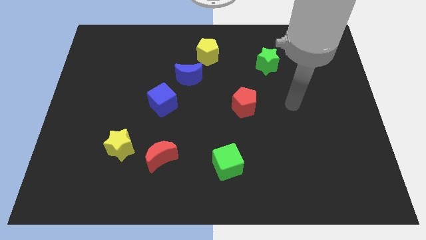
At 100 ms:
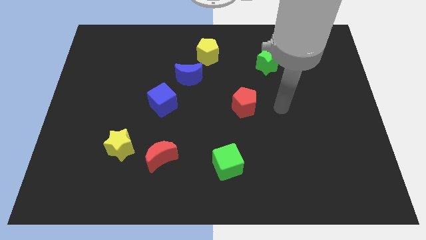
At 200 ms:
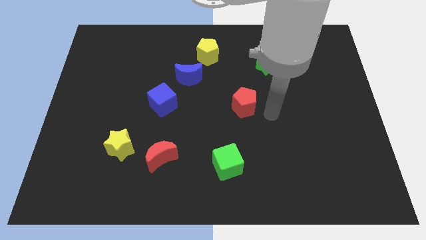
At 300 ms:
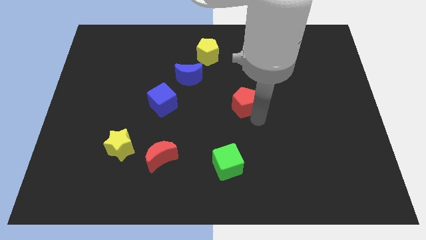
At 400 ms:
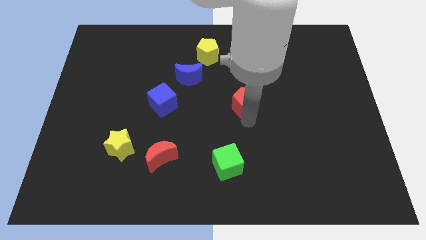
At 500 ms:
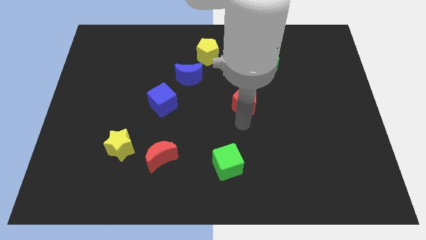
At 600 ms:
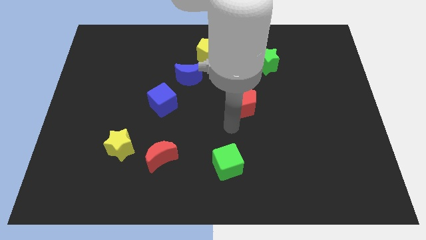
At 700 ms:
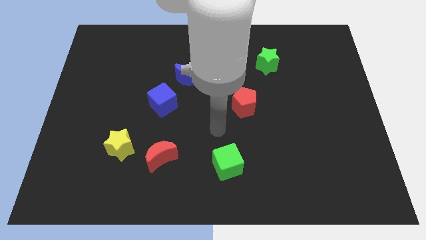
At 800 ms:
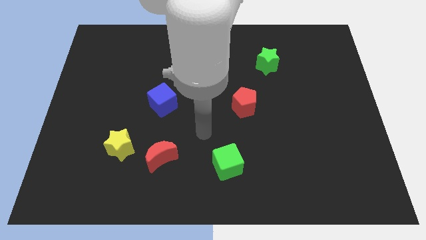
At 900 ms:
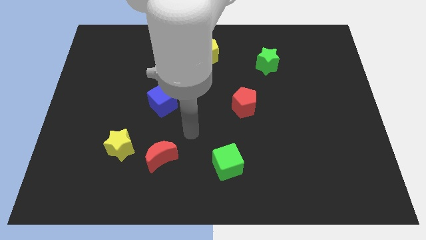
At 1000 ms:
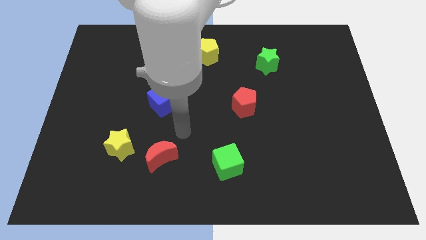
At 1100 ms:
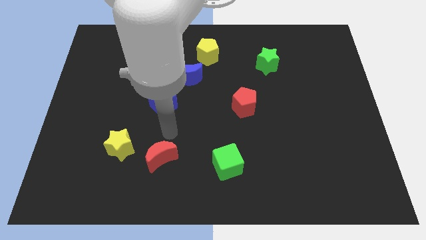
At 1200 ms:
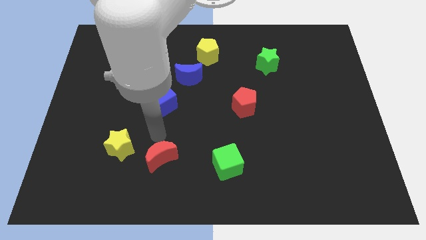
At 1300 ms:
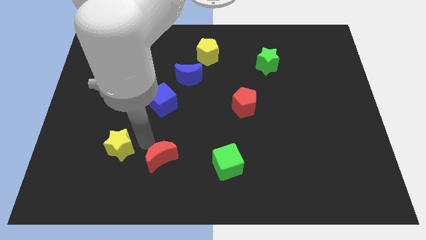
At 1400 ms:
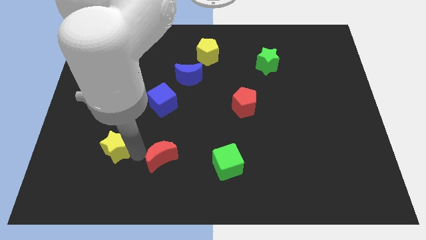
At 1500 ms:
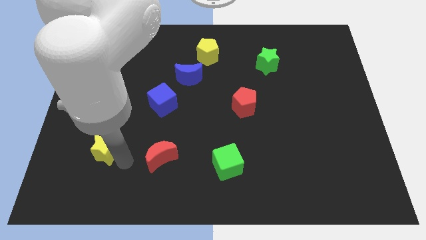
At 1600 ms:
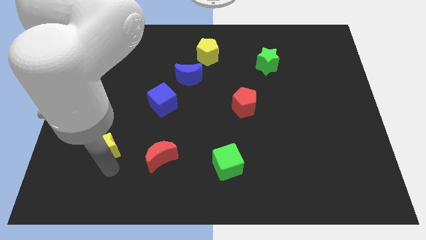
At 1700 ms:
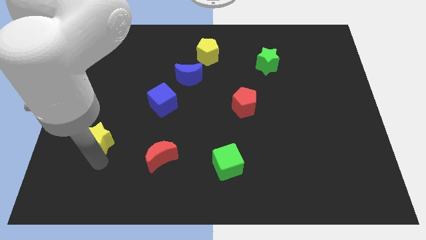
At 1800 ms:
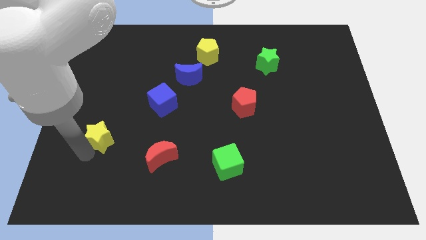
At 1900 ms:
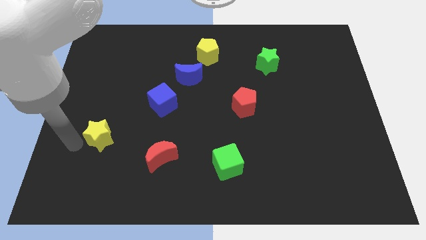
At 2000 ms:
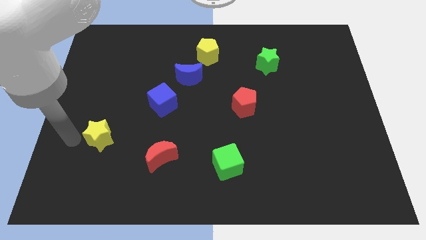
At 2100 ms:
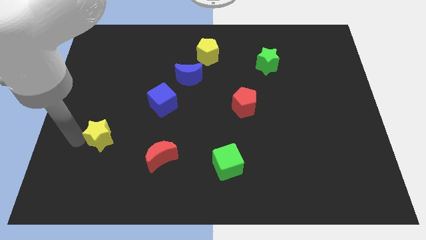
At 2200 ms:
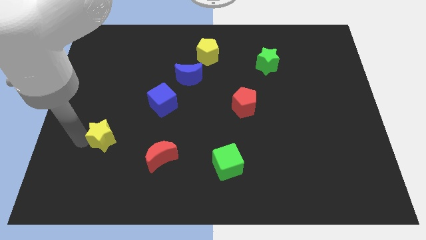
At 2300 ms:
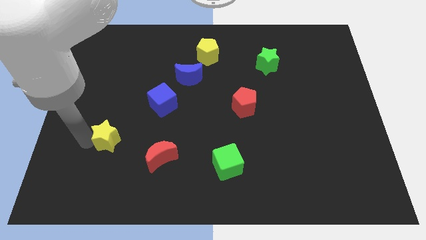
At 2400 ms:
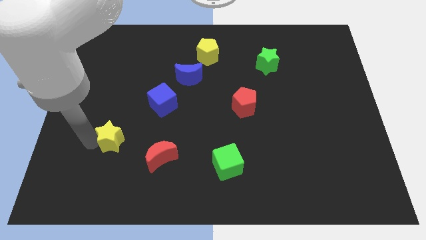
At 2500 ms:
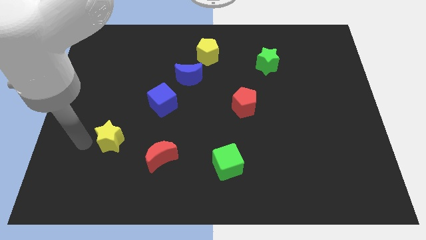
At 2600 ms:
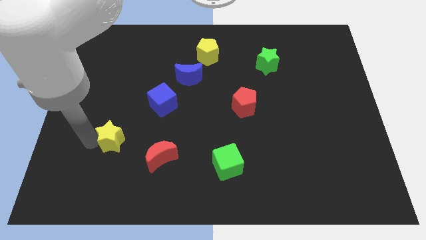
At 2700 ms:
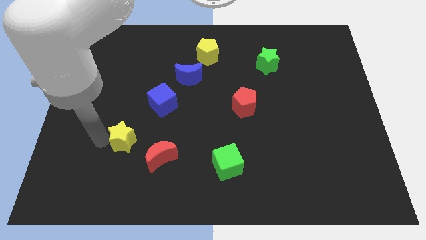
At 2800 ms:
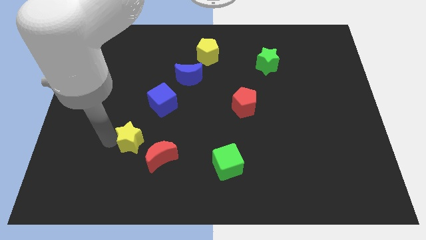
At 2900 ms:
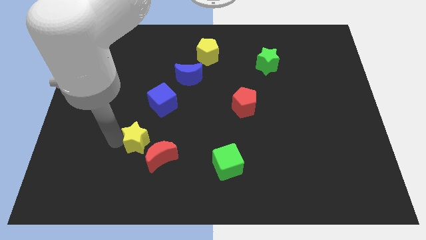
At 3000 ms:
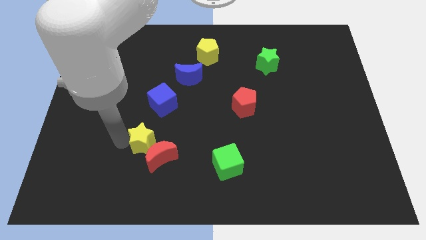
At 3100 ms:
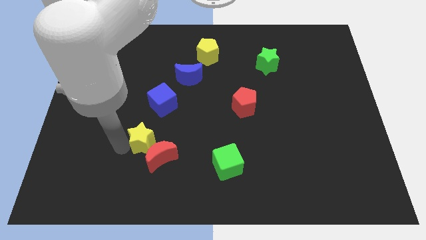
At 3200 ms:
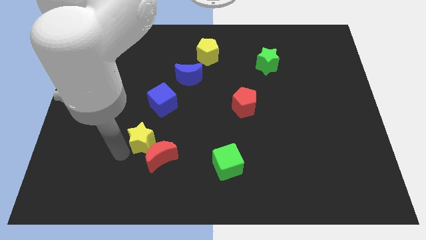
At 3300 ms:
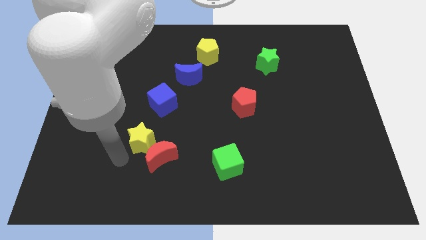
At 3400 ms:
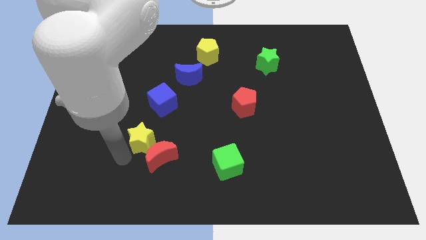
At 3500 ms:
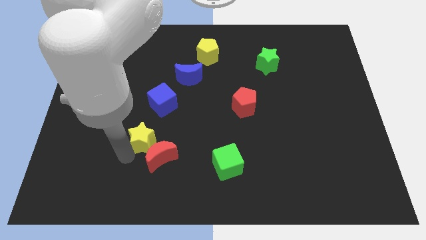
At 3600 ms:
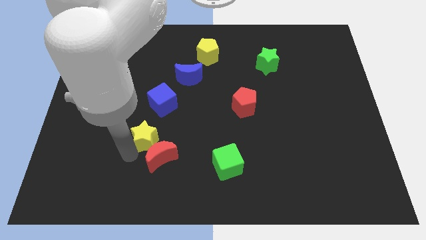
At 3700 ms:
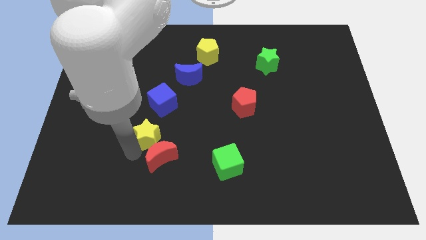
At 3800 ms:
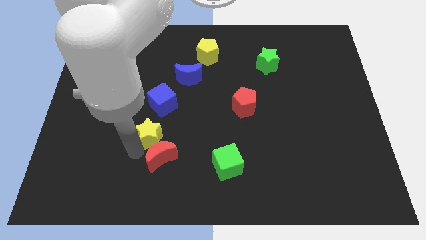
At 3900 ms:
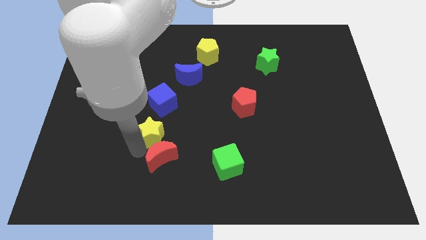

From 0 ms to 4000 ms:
move the yellow star somewhat upwards and right

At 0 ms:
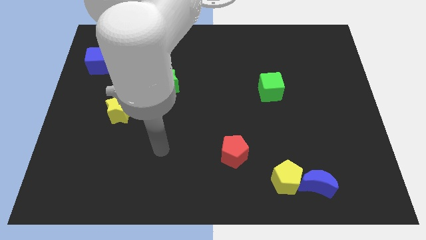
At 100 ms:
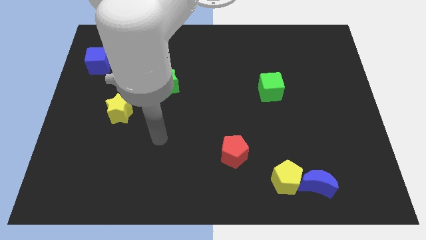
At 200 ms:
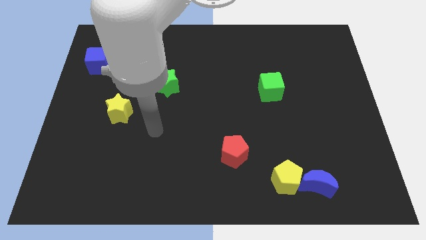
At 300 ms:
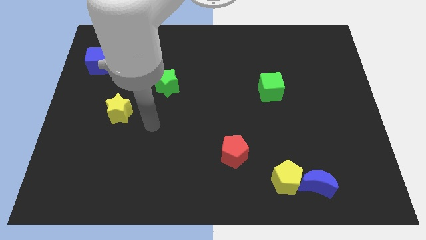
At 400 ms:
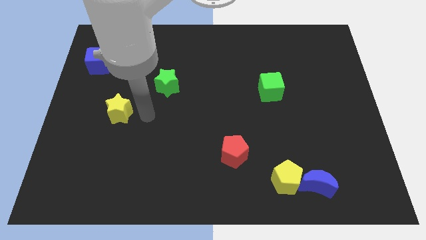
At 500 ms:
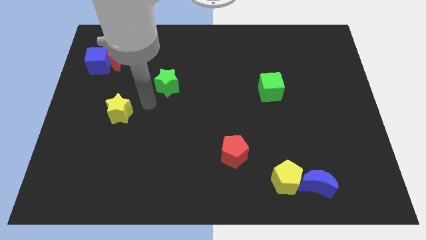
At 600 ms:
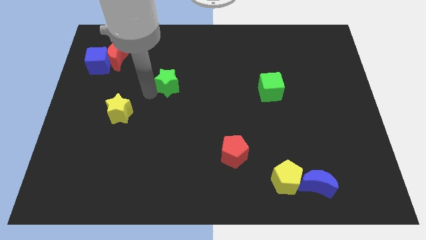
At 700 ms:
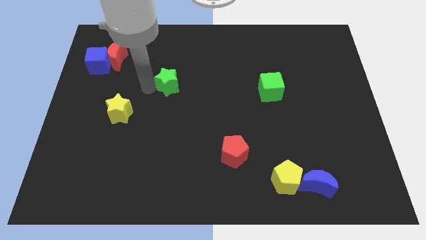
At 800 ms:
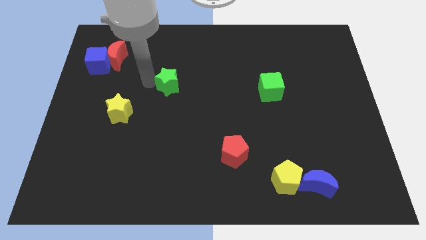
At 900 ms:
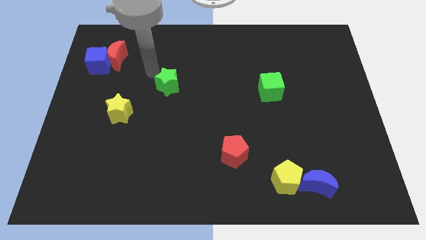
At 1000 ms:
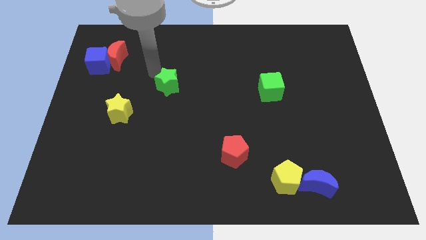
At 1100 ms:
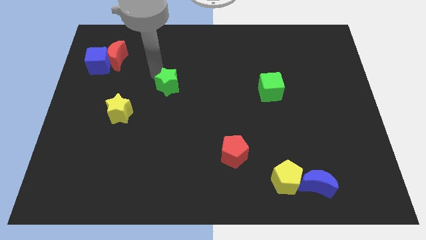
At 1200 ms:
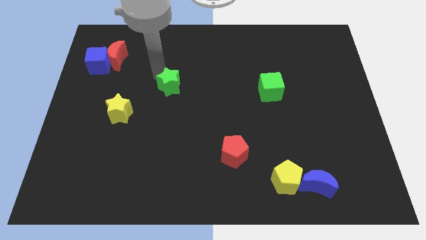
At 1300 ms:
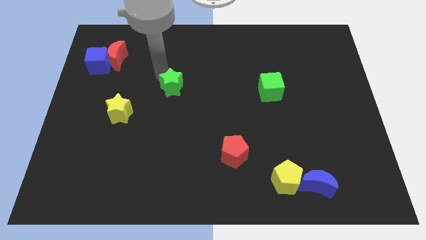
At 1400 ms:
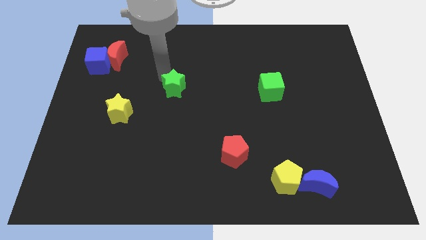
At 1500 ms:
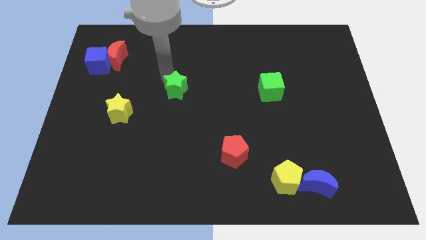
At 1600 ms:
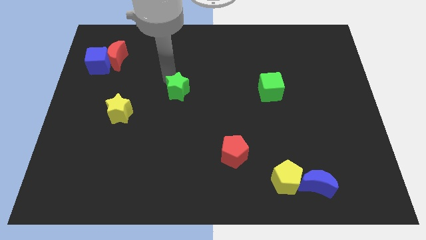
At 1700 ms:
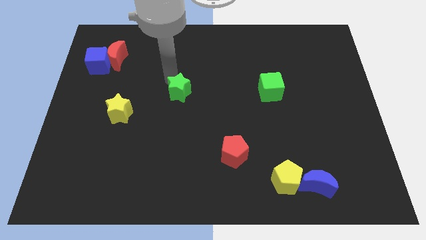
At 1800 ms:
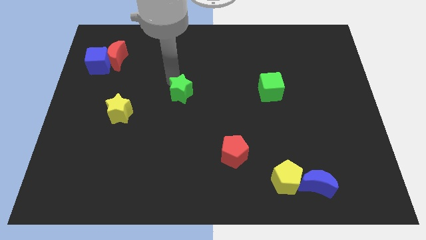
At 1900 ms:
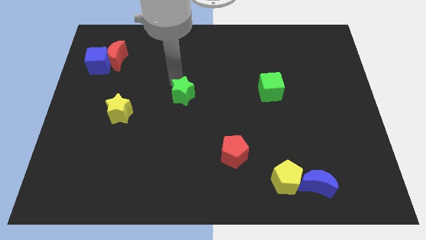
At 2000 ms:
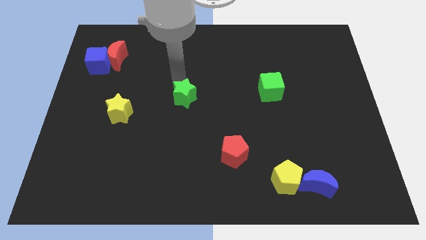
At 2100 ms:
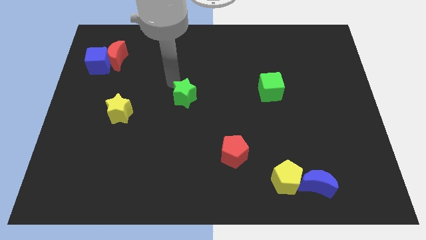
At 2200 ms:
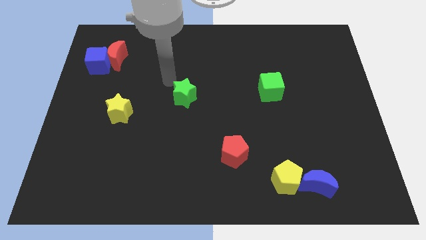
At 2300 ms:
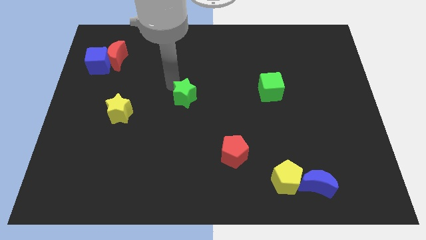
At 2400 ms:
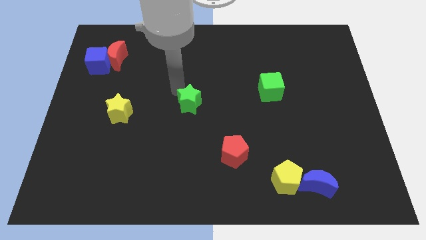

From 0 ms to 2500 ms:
move the green star diagonally down and to the right slightly

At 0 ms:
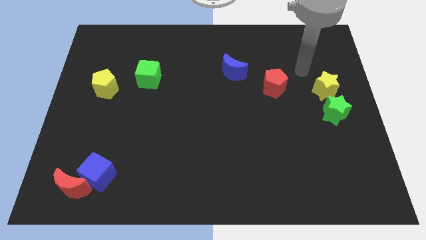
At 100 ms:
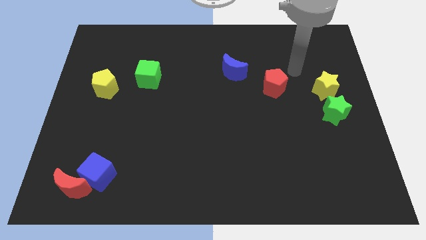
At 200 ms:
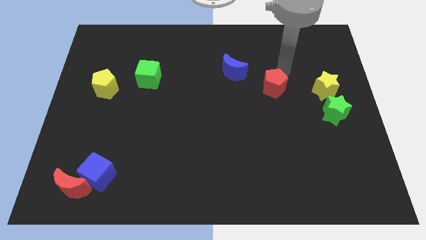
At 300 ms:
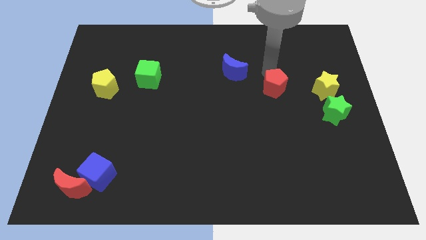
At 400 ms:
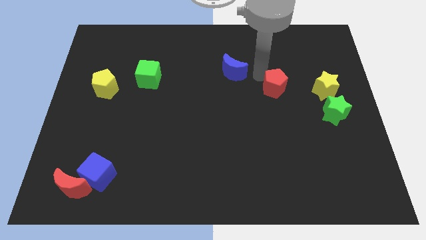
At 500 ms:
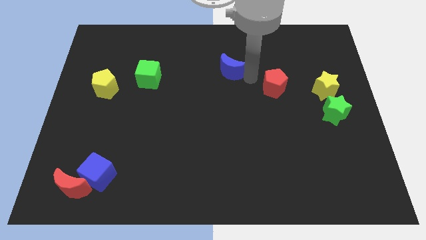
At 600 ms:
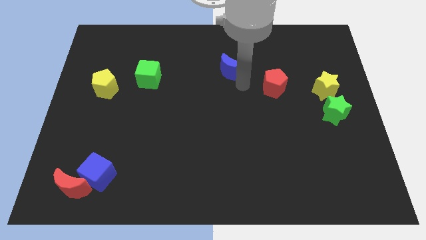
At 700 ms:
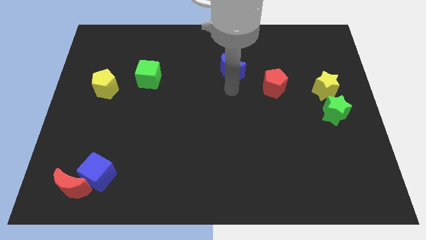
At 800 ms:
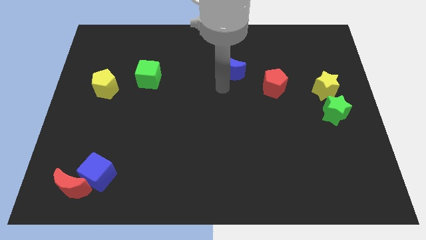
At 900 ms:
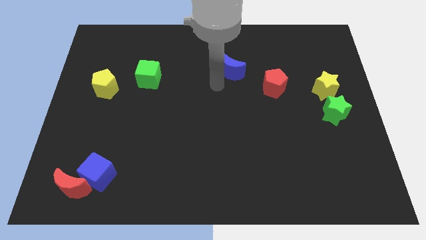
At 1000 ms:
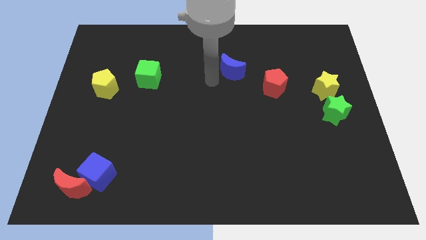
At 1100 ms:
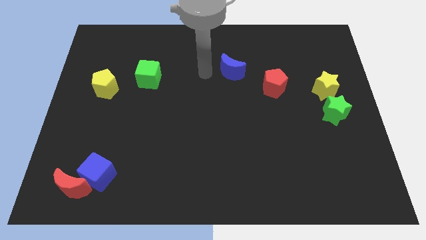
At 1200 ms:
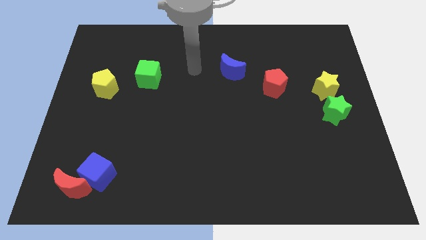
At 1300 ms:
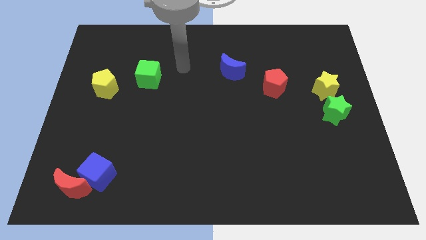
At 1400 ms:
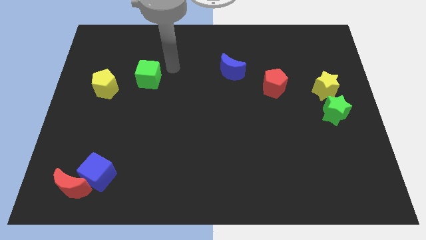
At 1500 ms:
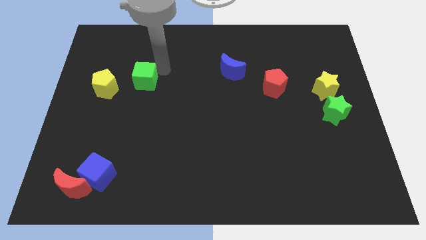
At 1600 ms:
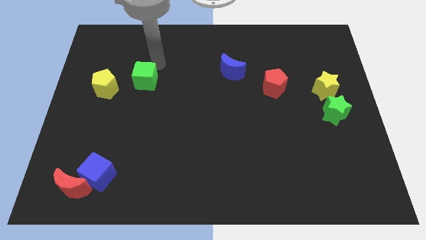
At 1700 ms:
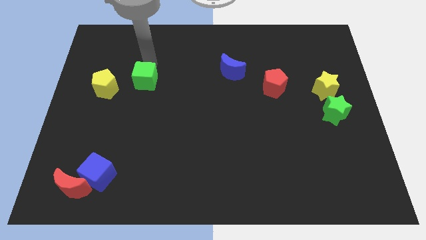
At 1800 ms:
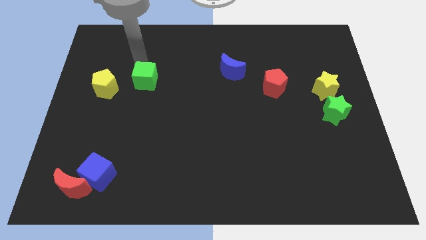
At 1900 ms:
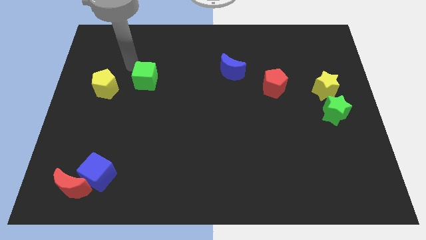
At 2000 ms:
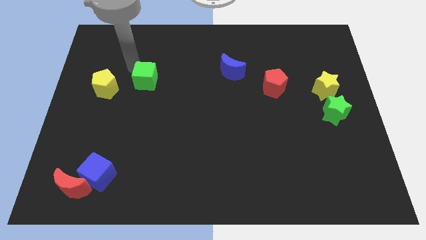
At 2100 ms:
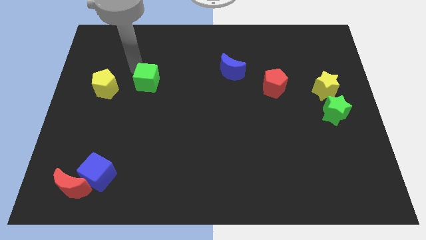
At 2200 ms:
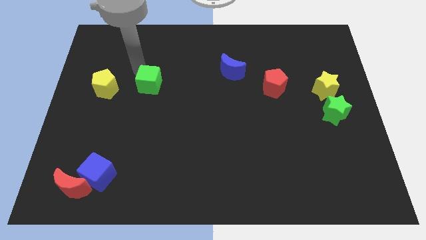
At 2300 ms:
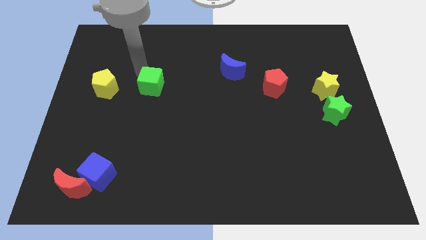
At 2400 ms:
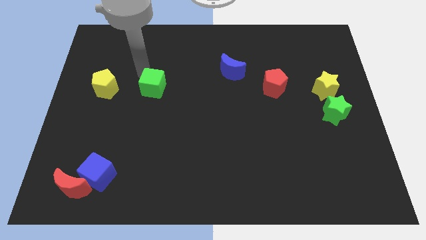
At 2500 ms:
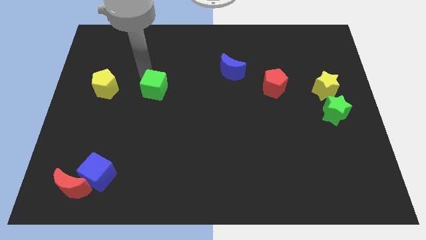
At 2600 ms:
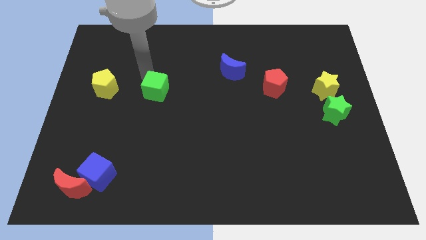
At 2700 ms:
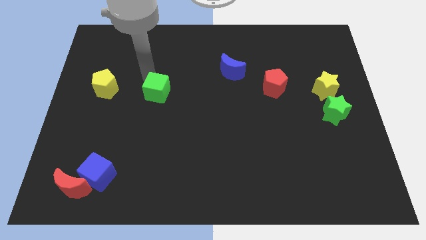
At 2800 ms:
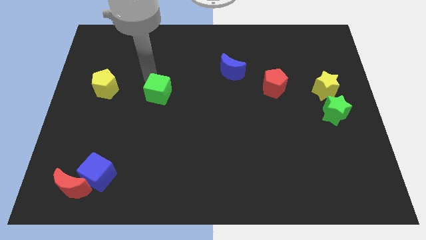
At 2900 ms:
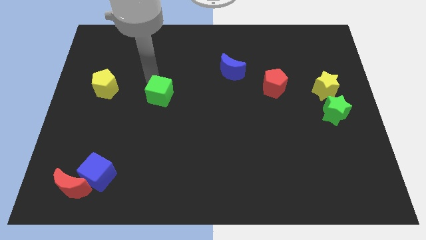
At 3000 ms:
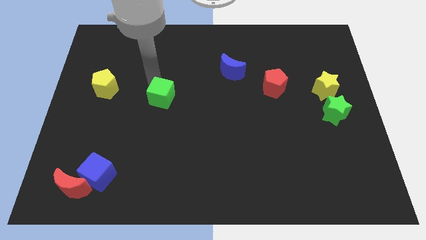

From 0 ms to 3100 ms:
slide the green cube downwards and right diagonally slightly
